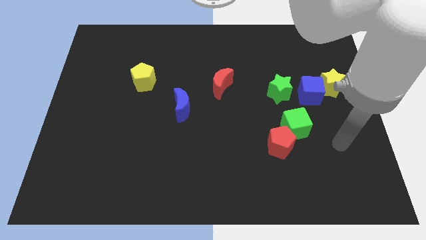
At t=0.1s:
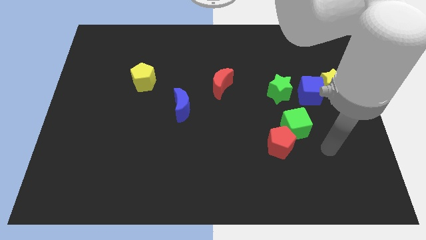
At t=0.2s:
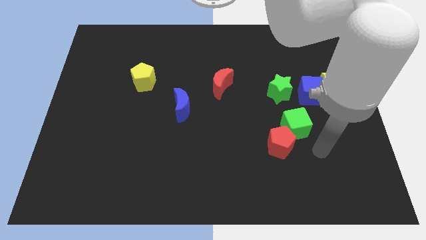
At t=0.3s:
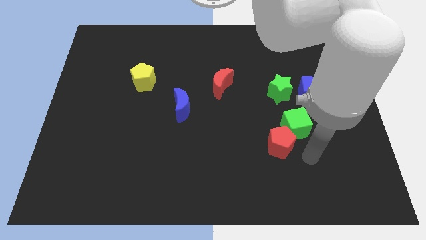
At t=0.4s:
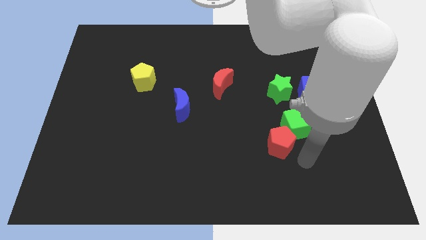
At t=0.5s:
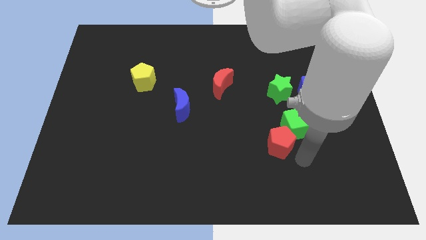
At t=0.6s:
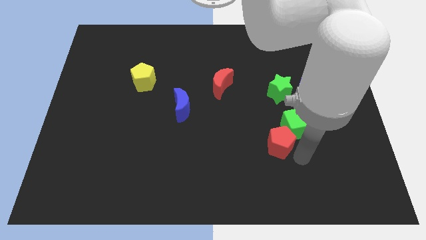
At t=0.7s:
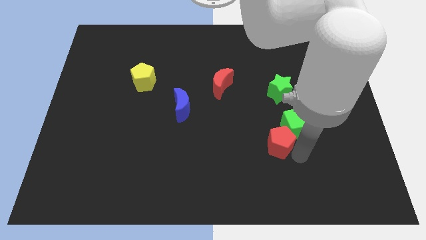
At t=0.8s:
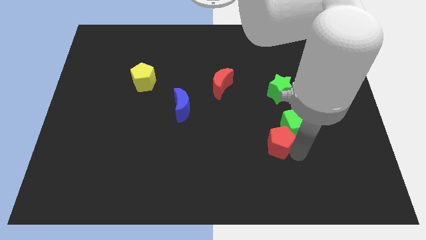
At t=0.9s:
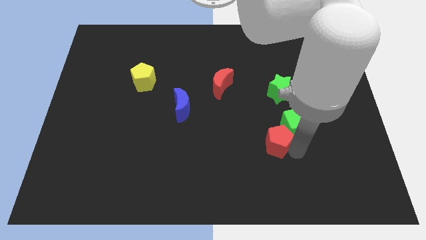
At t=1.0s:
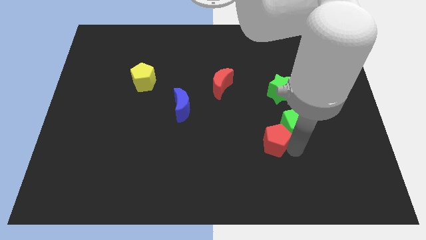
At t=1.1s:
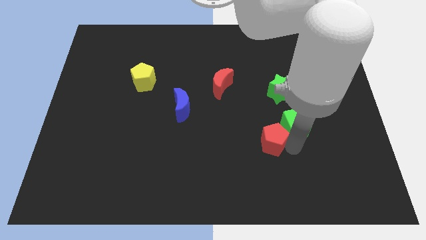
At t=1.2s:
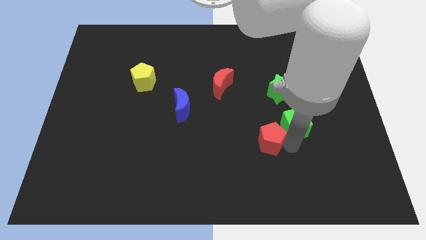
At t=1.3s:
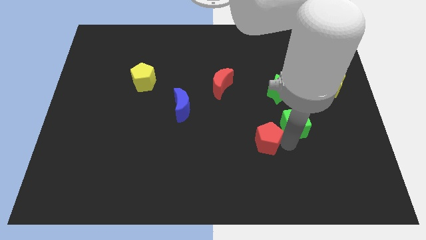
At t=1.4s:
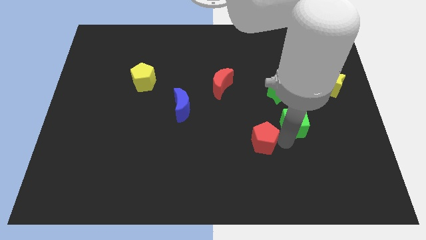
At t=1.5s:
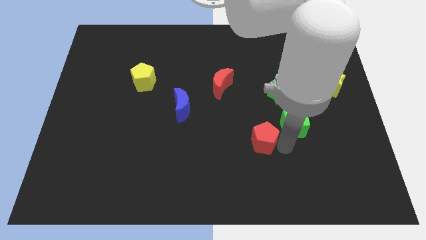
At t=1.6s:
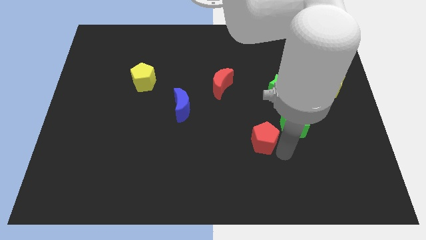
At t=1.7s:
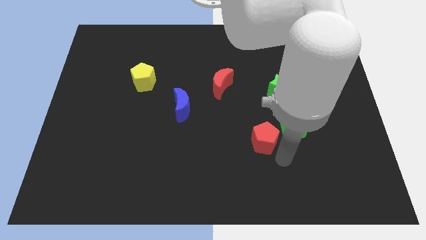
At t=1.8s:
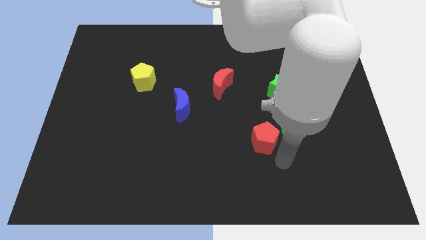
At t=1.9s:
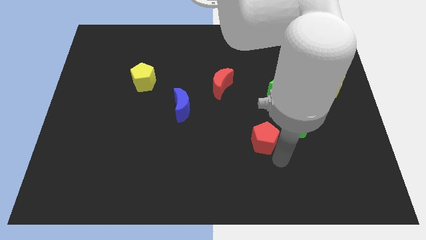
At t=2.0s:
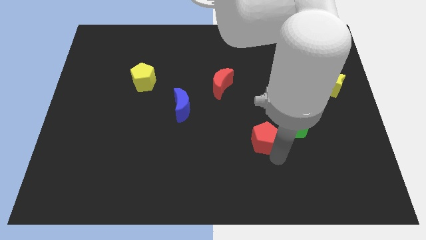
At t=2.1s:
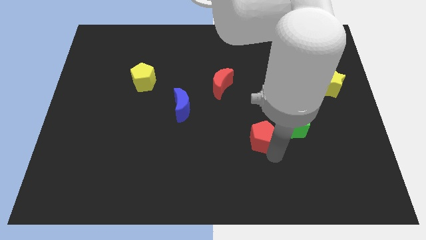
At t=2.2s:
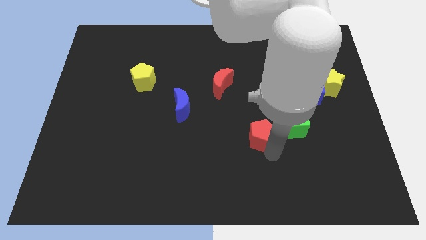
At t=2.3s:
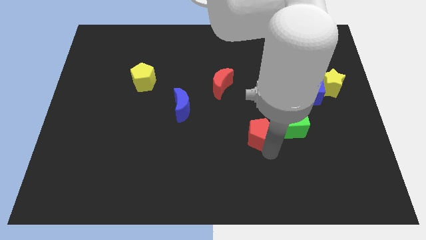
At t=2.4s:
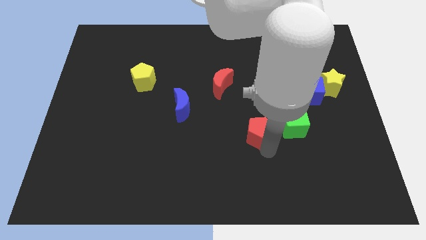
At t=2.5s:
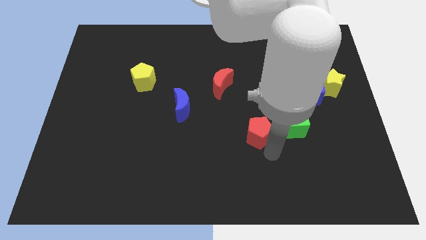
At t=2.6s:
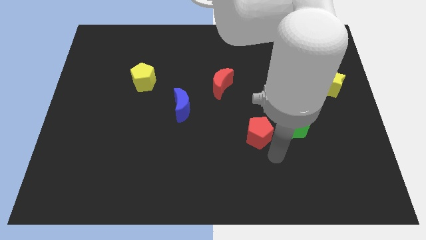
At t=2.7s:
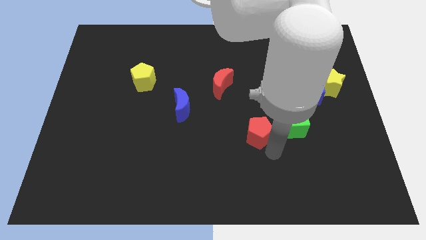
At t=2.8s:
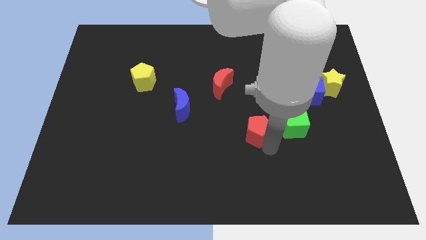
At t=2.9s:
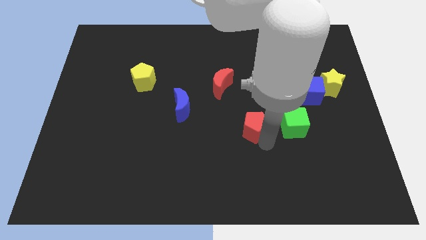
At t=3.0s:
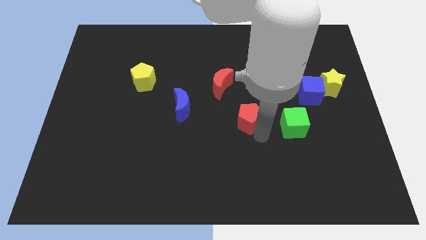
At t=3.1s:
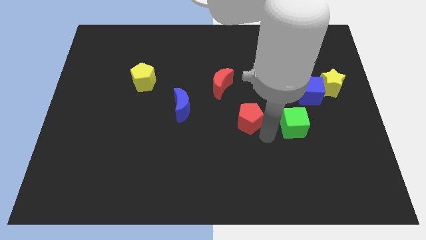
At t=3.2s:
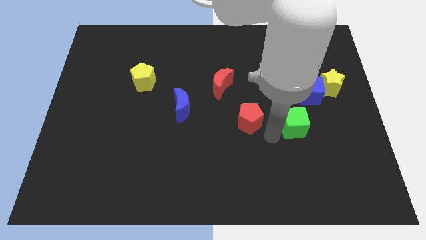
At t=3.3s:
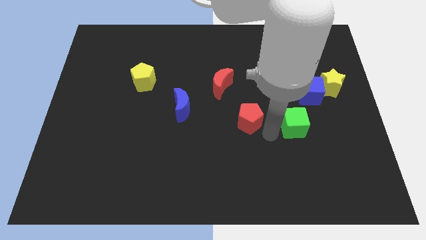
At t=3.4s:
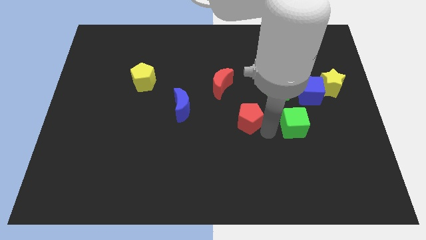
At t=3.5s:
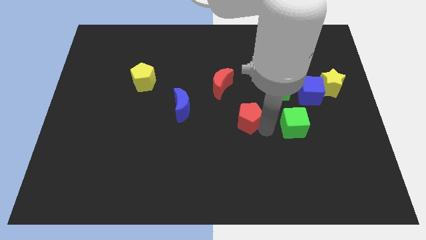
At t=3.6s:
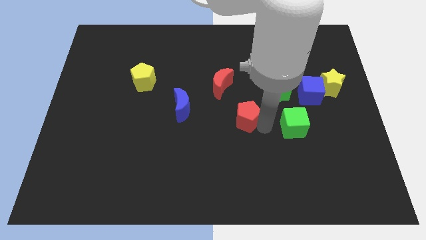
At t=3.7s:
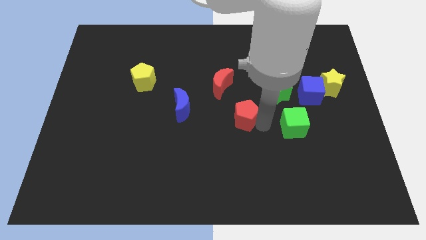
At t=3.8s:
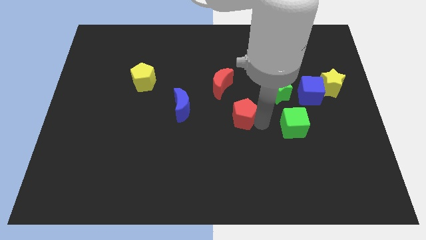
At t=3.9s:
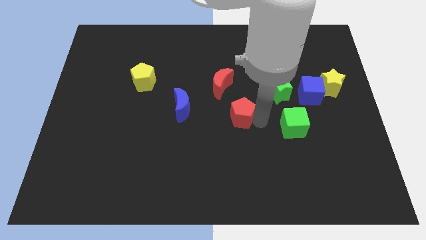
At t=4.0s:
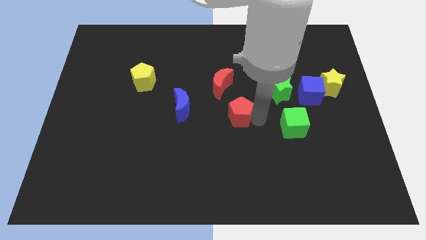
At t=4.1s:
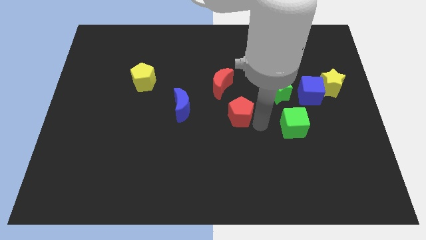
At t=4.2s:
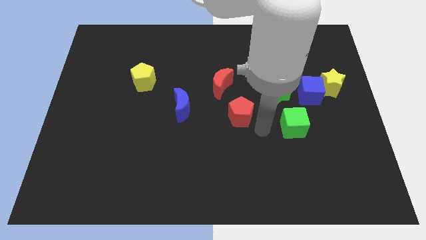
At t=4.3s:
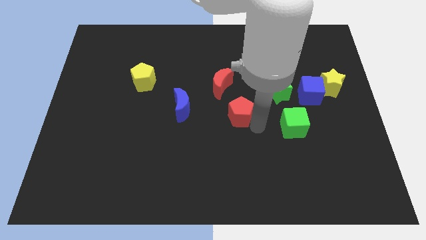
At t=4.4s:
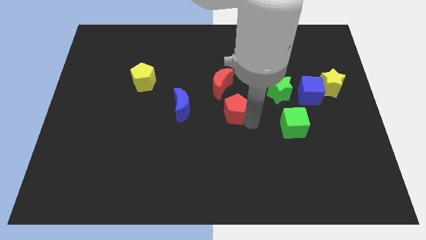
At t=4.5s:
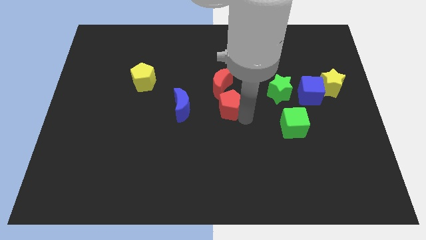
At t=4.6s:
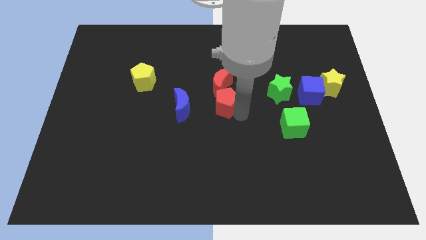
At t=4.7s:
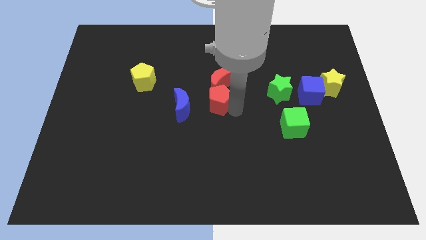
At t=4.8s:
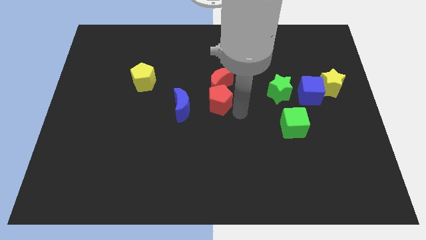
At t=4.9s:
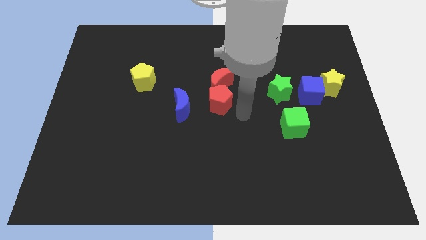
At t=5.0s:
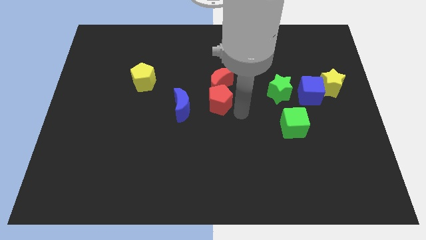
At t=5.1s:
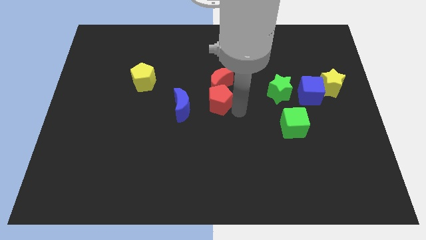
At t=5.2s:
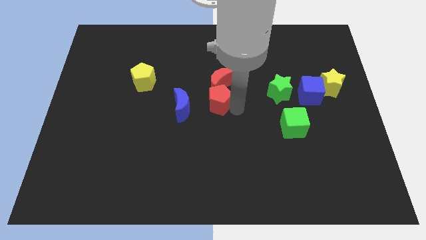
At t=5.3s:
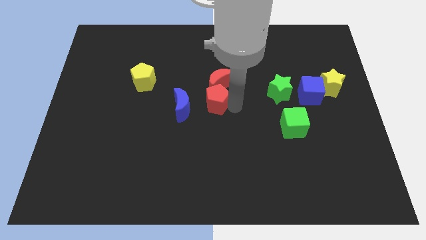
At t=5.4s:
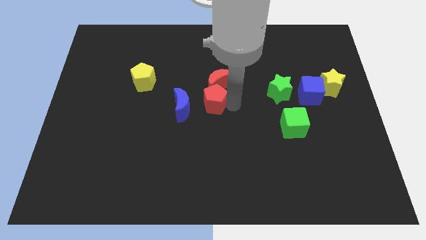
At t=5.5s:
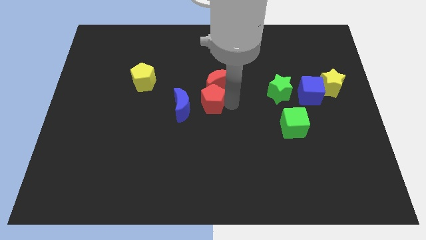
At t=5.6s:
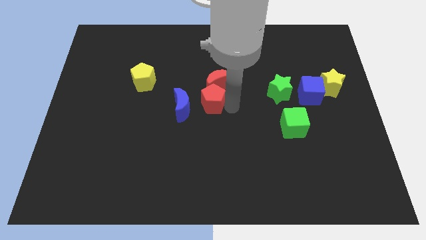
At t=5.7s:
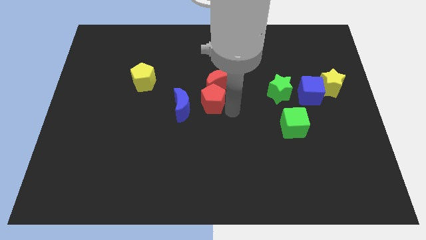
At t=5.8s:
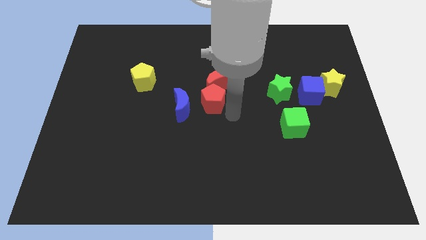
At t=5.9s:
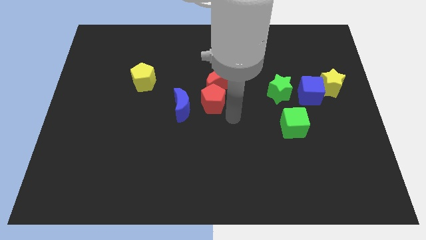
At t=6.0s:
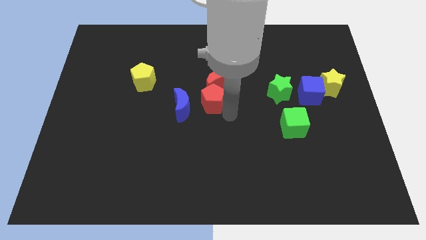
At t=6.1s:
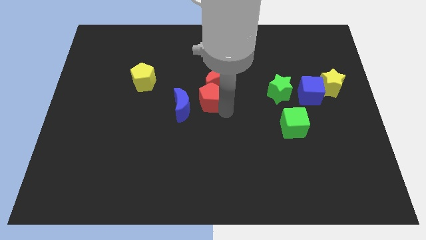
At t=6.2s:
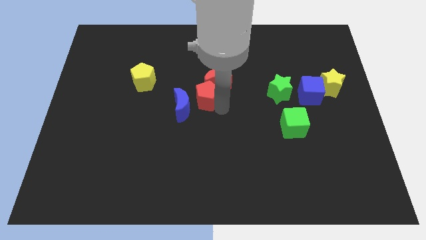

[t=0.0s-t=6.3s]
move the red pentagon upwards and left

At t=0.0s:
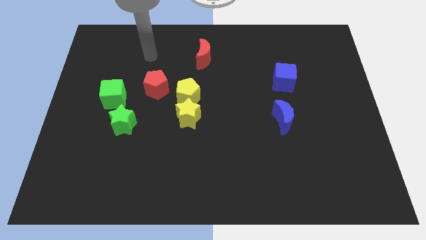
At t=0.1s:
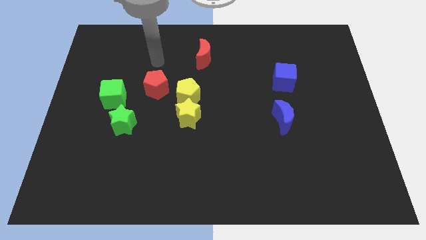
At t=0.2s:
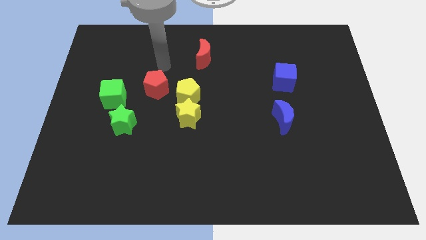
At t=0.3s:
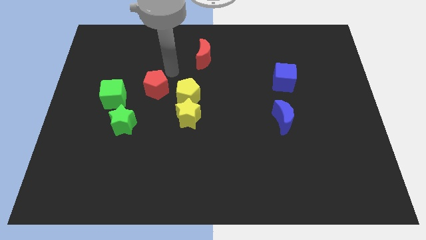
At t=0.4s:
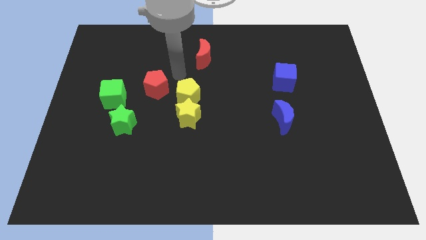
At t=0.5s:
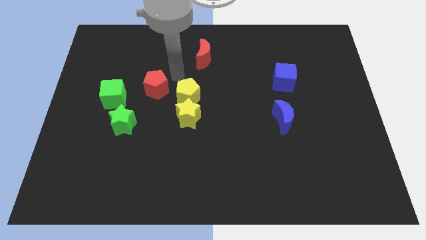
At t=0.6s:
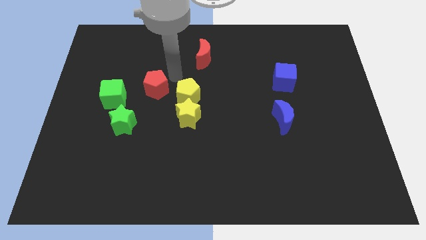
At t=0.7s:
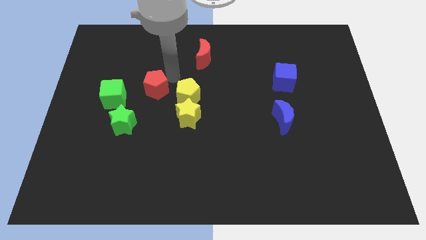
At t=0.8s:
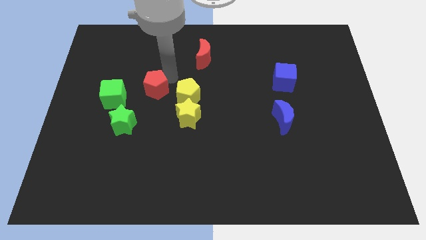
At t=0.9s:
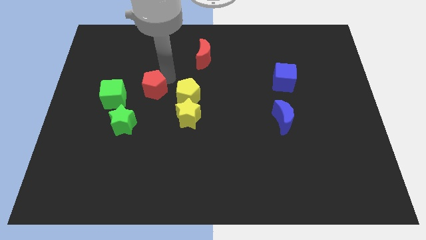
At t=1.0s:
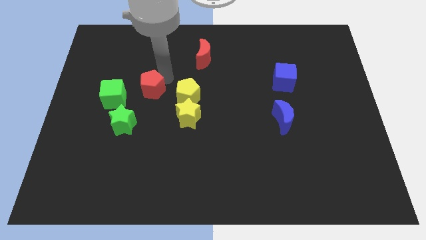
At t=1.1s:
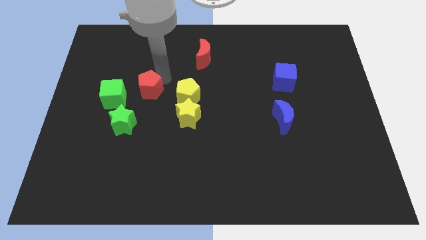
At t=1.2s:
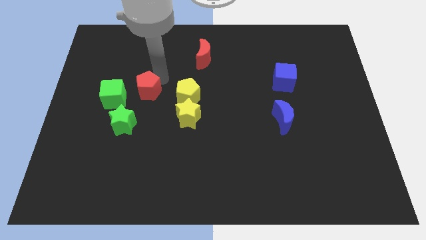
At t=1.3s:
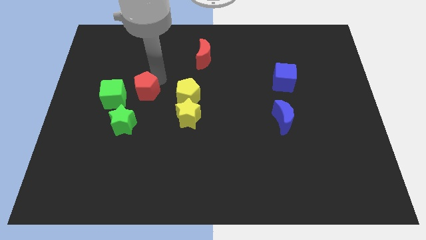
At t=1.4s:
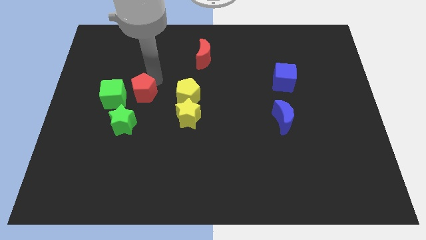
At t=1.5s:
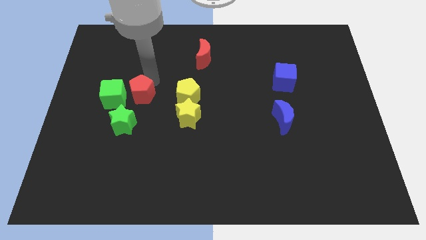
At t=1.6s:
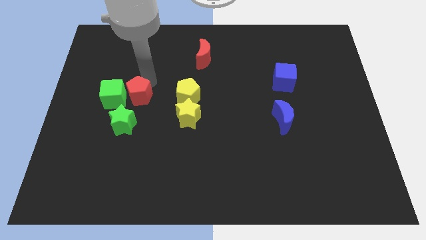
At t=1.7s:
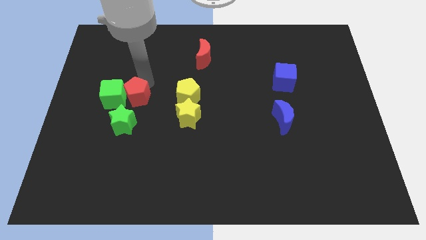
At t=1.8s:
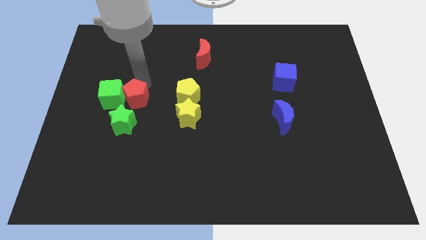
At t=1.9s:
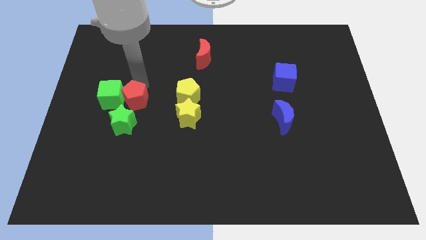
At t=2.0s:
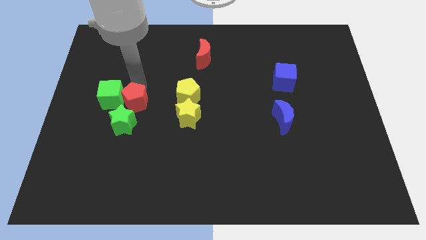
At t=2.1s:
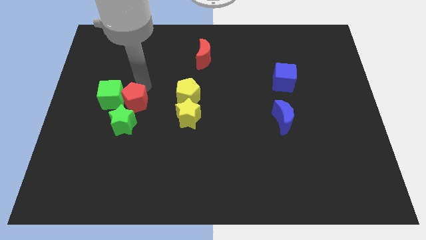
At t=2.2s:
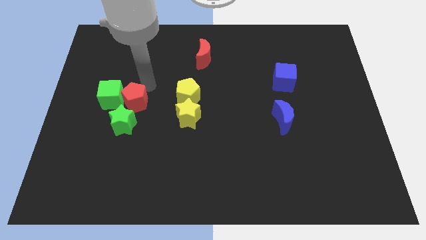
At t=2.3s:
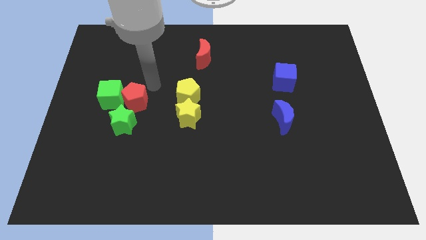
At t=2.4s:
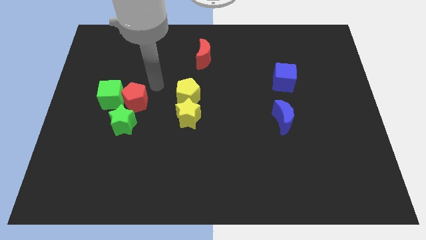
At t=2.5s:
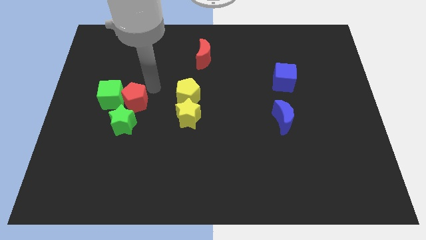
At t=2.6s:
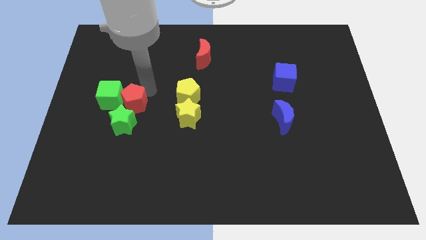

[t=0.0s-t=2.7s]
push the red pentagon down and then left somewhat
